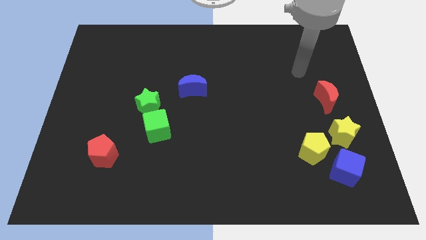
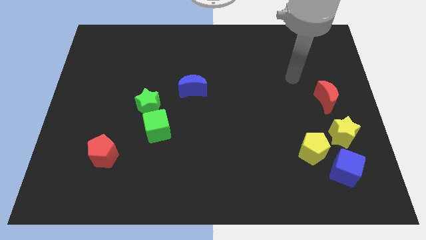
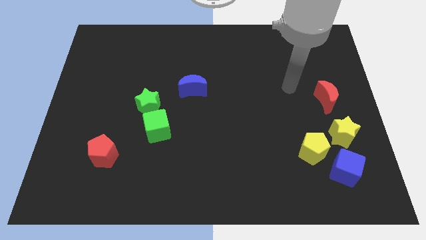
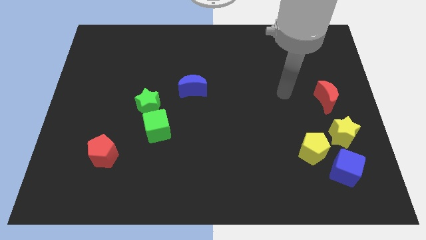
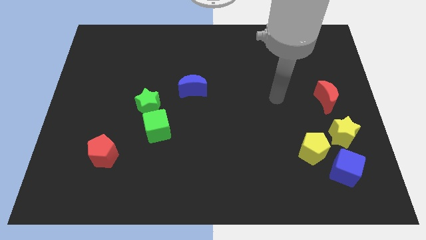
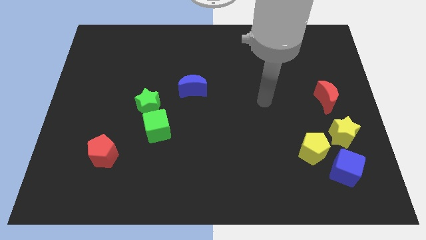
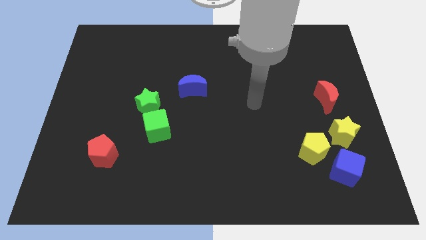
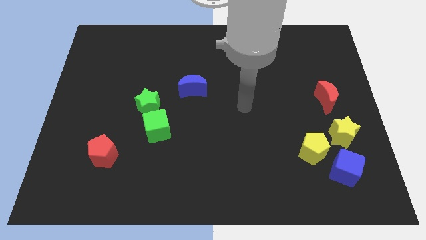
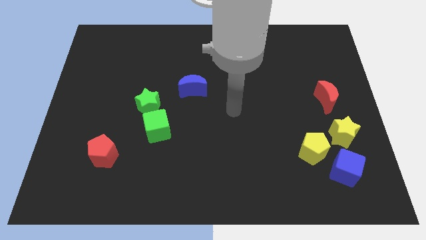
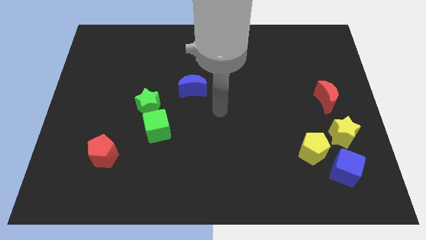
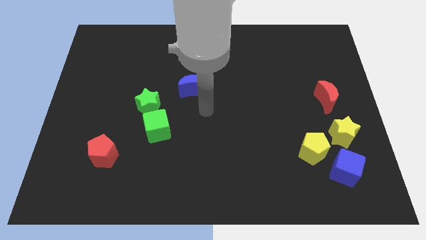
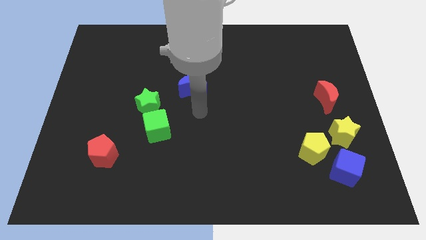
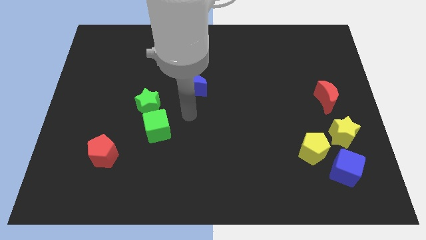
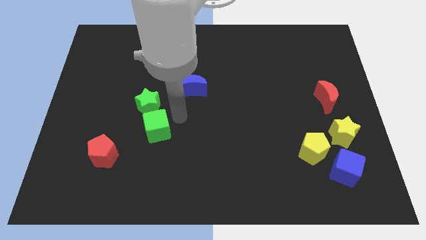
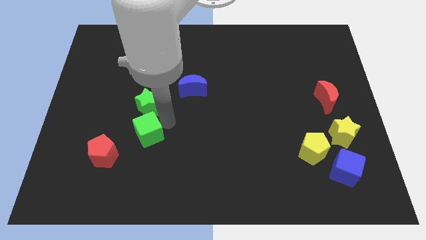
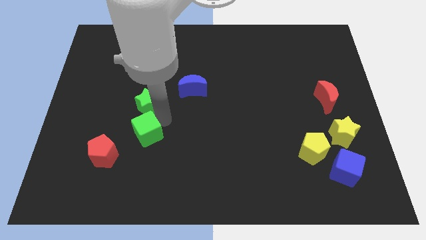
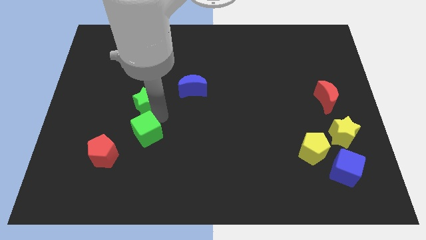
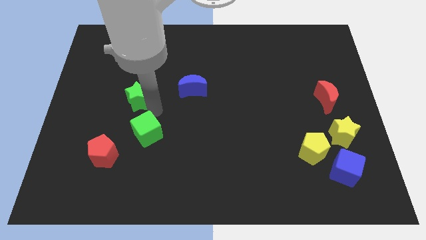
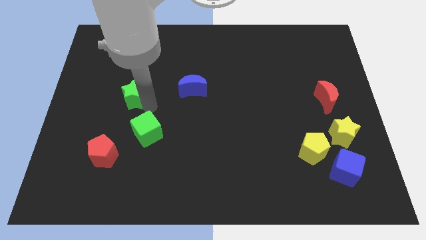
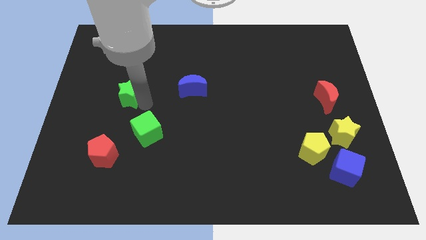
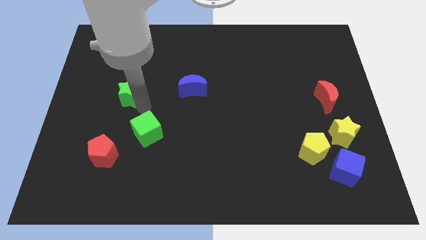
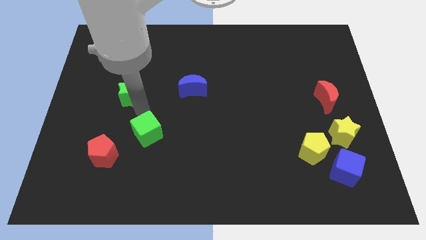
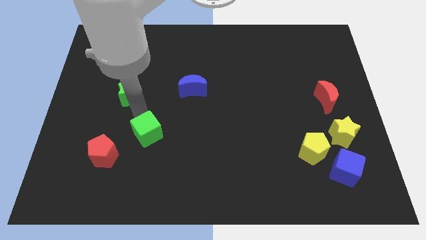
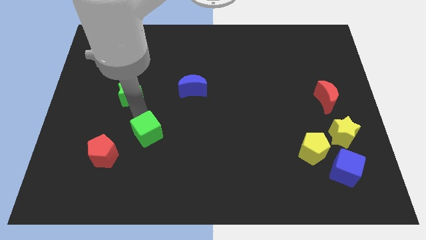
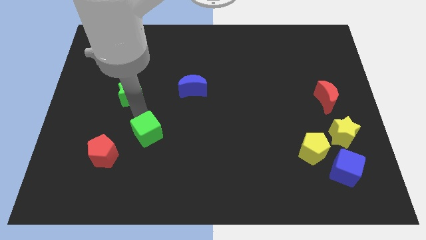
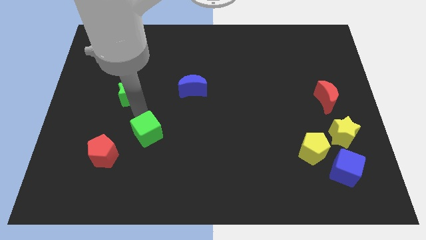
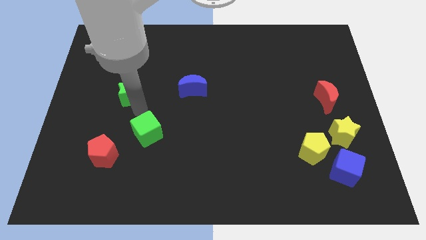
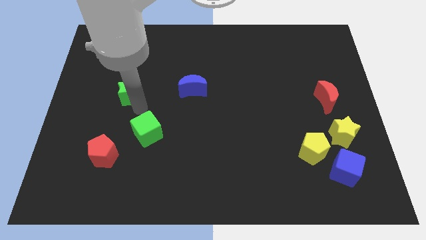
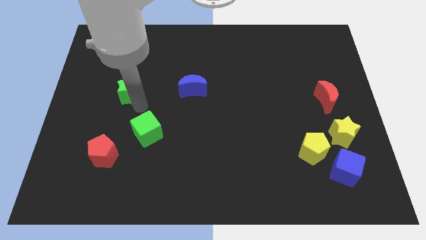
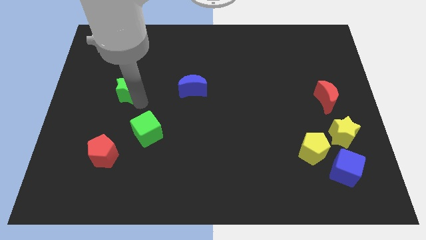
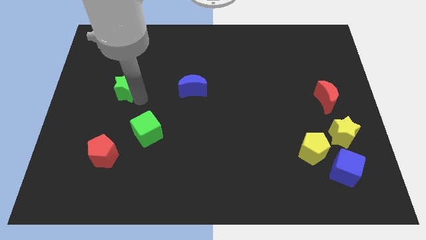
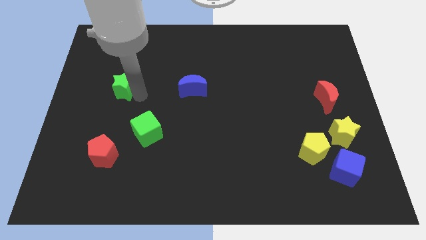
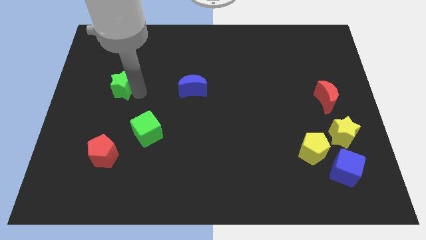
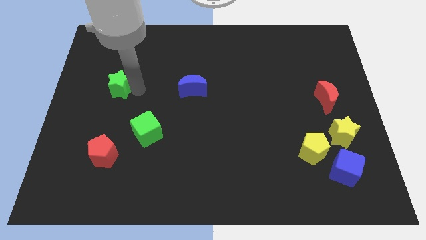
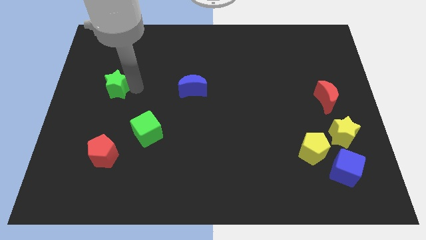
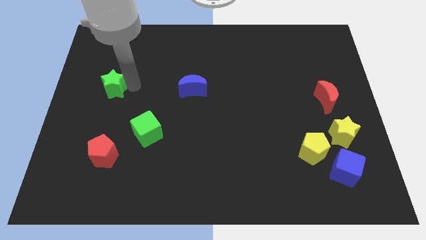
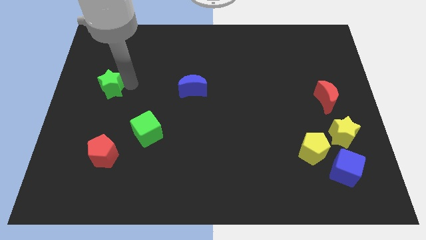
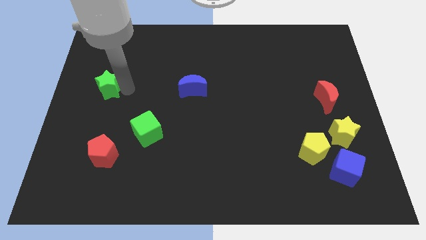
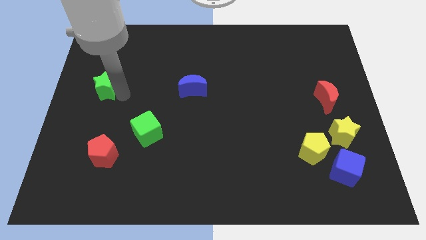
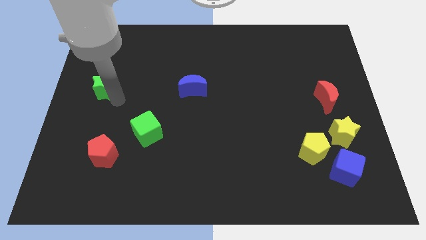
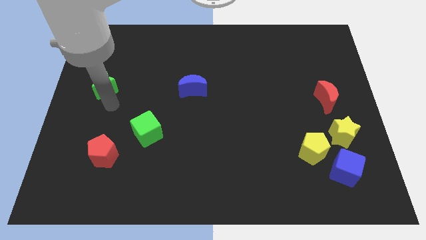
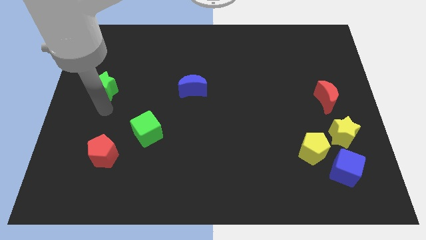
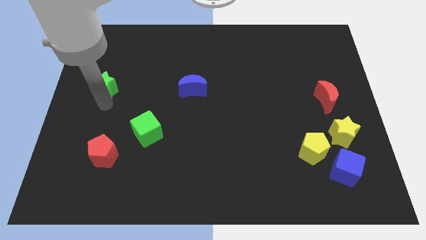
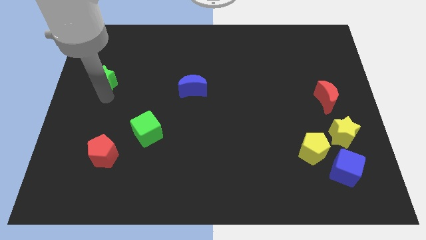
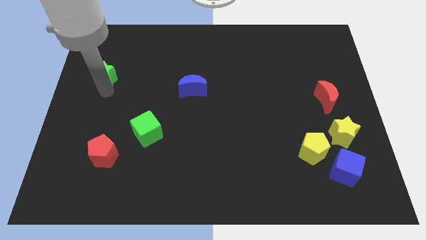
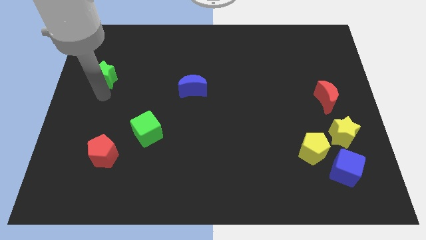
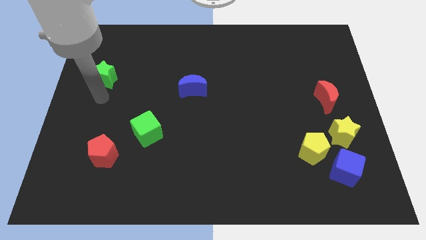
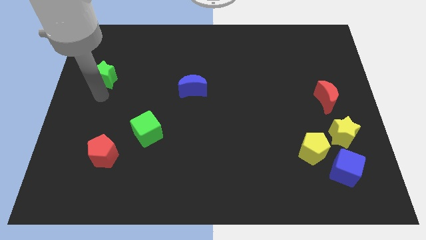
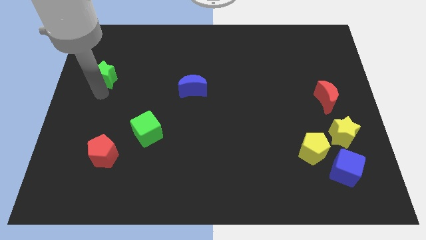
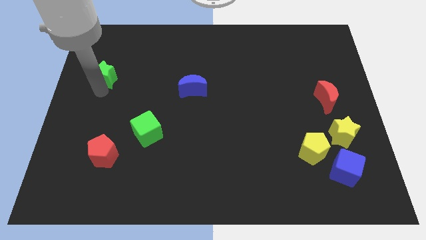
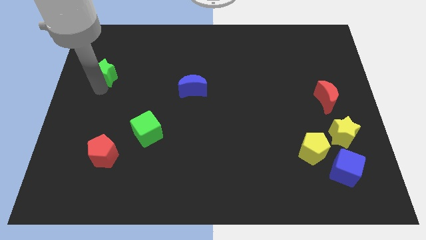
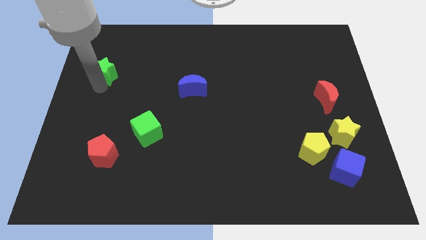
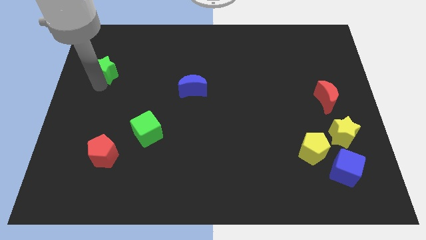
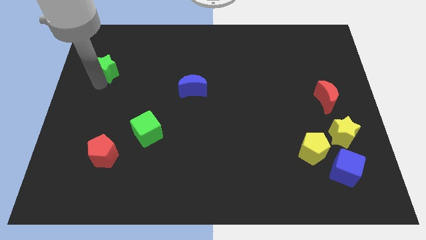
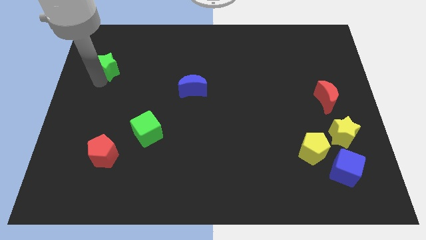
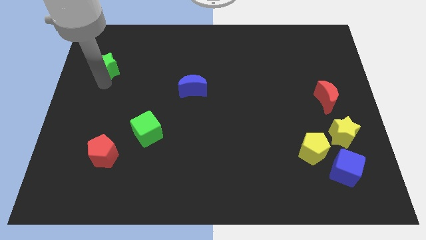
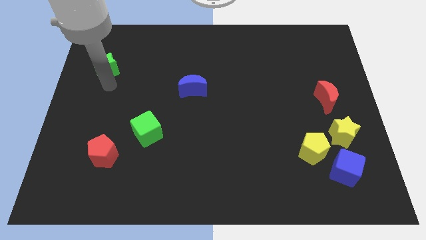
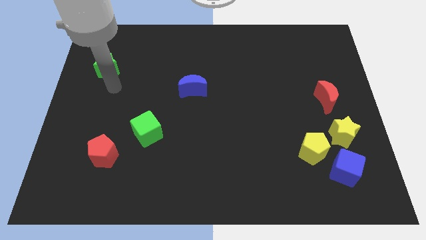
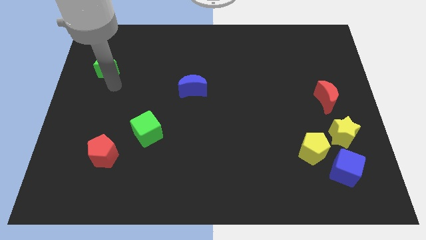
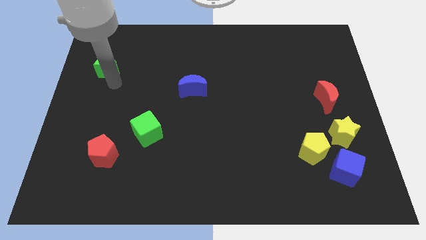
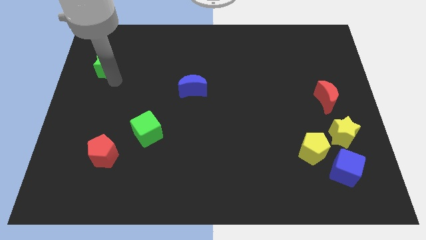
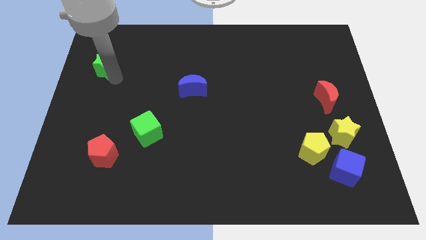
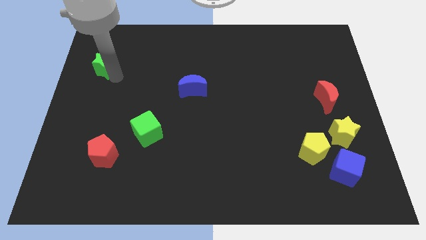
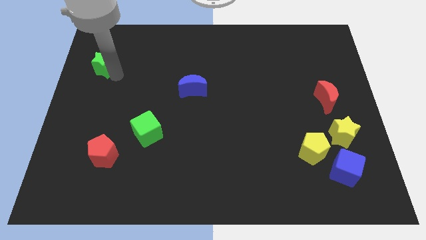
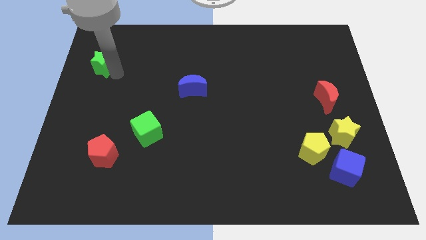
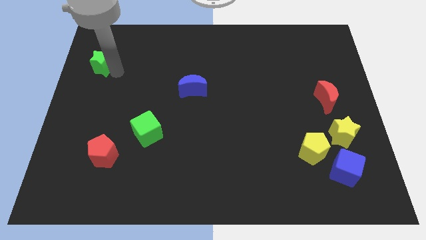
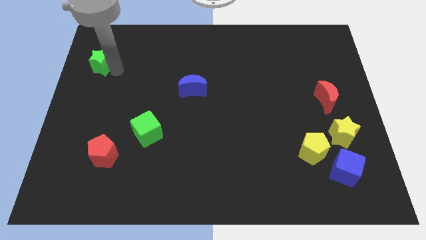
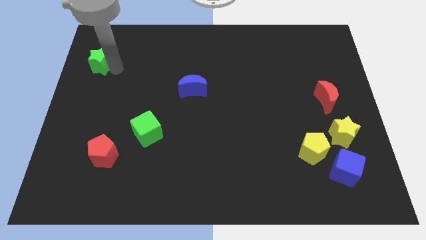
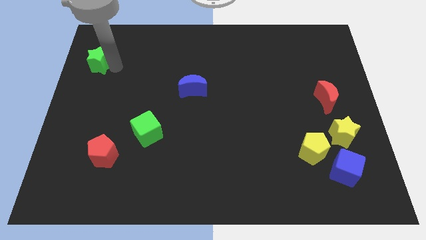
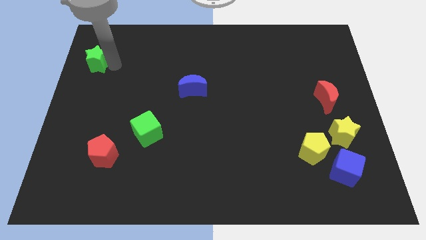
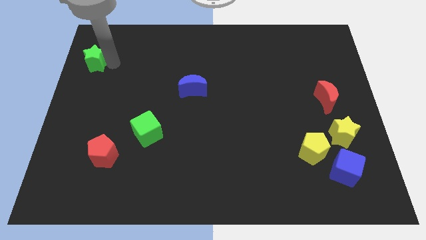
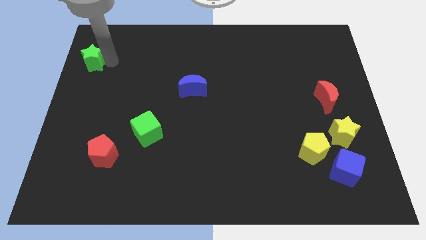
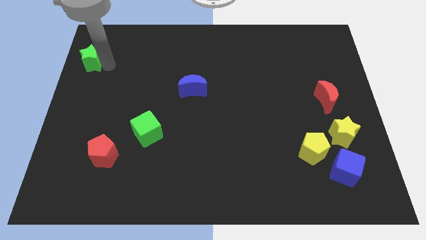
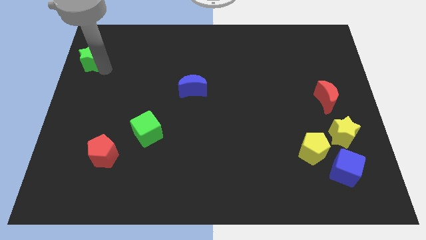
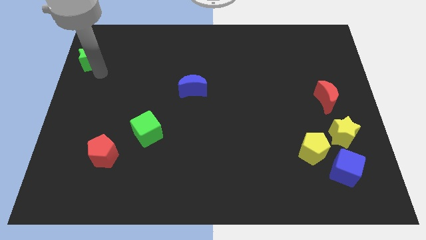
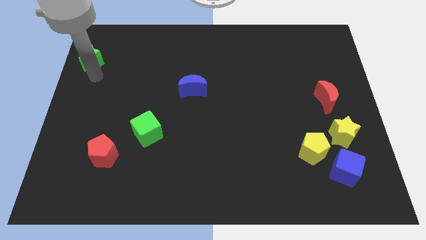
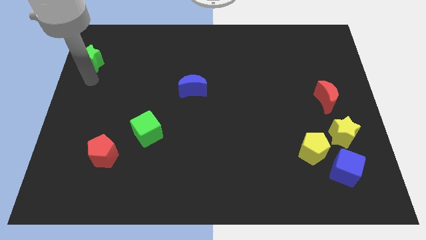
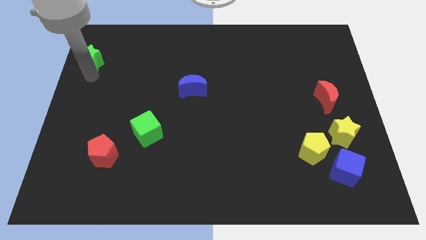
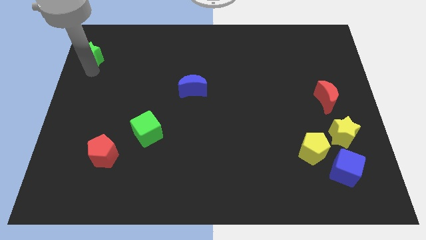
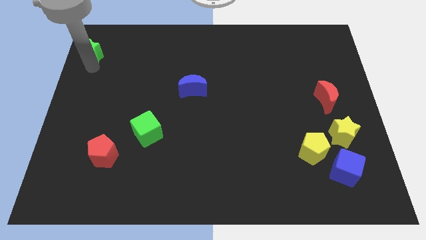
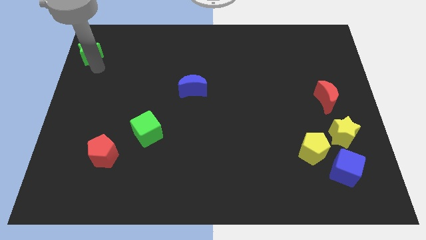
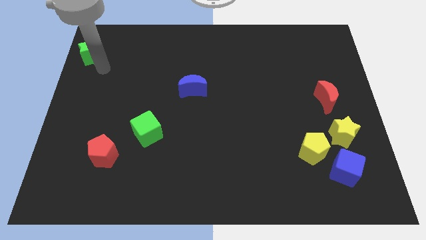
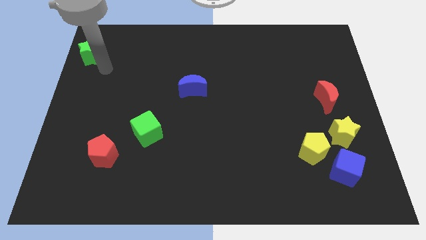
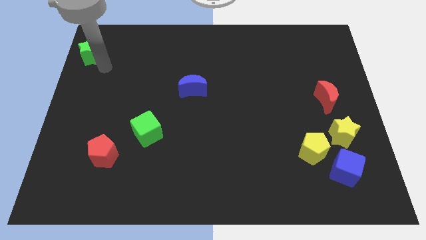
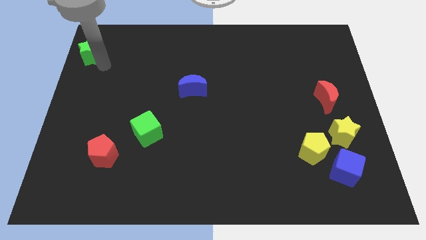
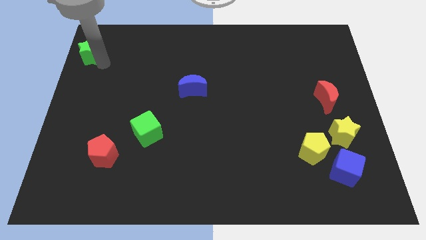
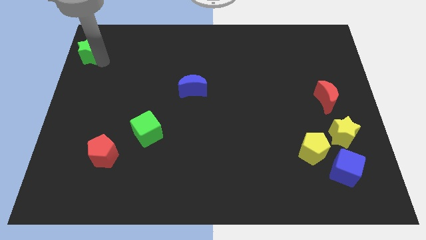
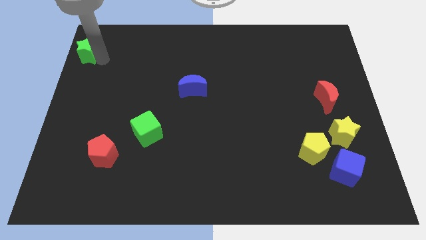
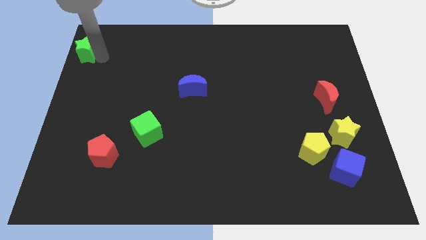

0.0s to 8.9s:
put the green star to the top left of the board
